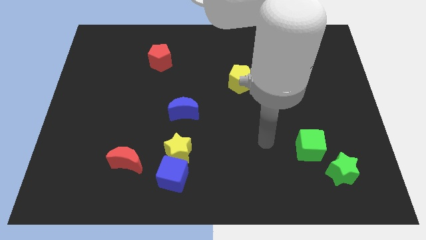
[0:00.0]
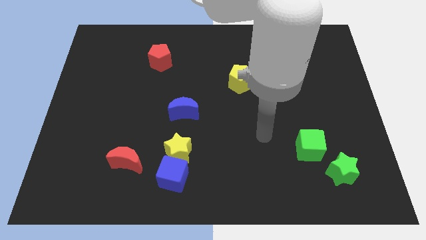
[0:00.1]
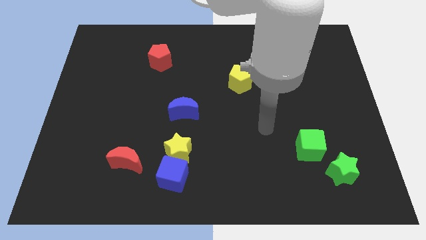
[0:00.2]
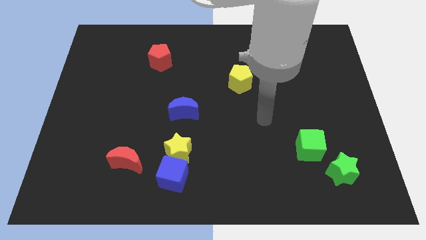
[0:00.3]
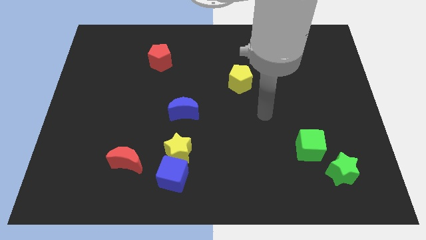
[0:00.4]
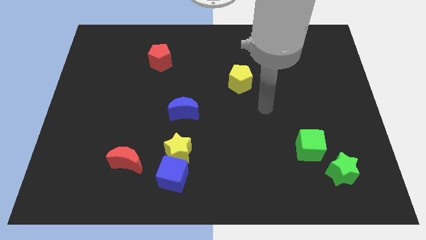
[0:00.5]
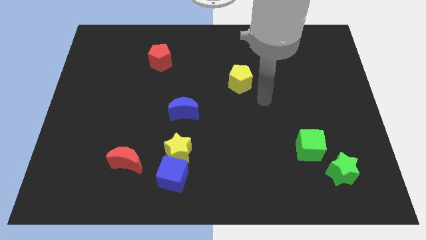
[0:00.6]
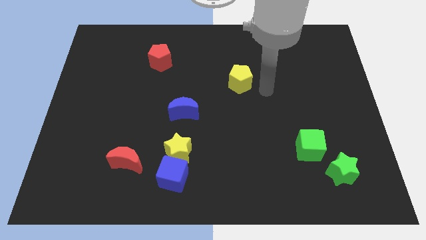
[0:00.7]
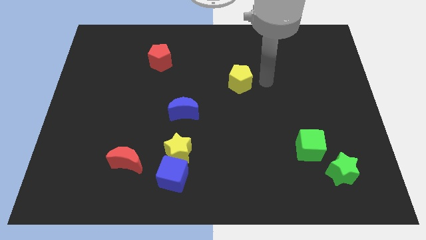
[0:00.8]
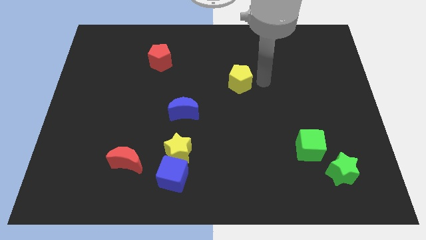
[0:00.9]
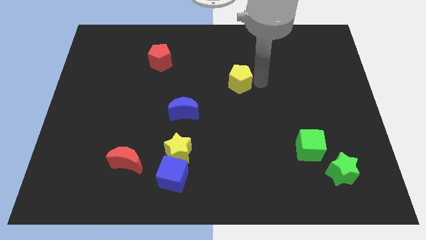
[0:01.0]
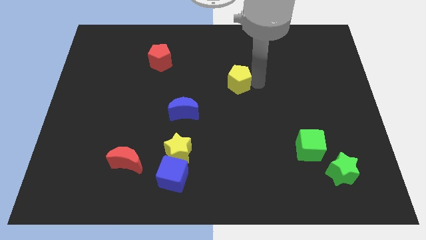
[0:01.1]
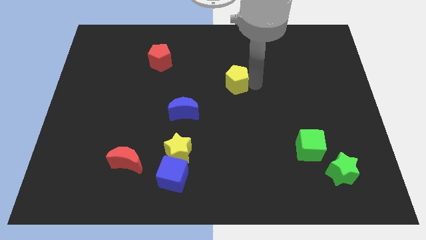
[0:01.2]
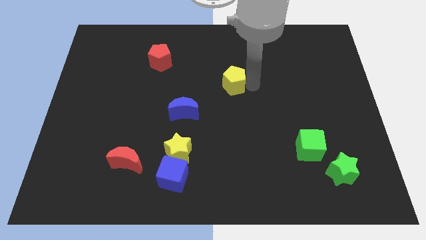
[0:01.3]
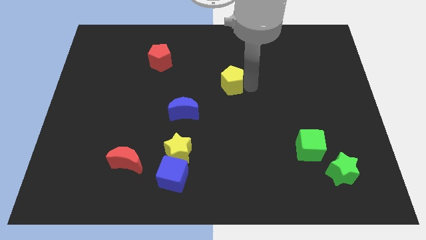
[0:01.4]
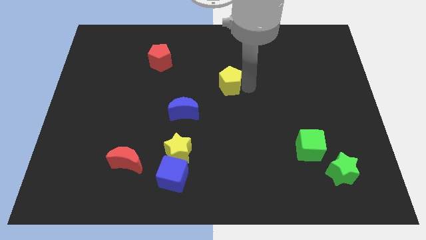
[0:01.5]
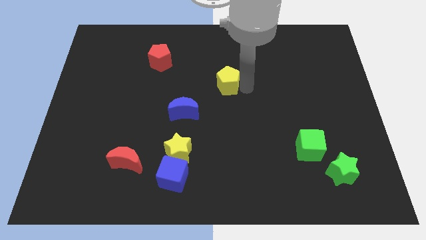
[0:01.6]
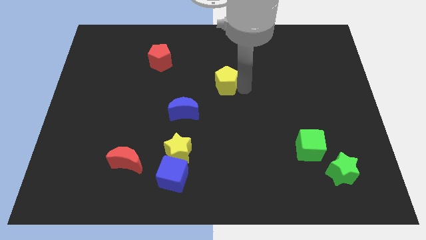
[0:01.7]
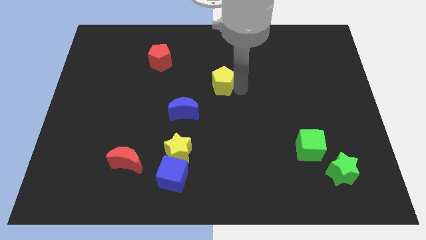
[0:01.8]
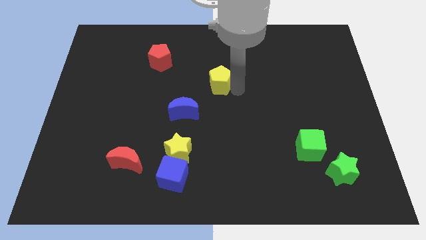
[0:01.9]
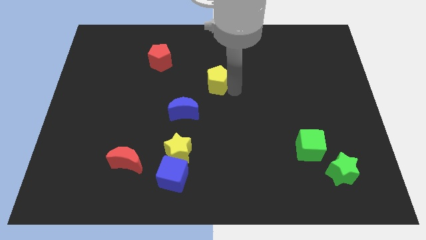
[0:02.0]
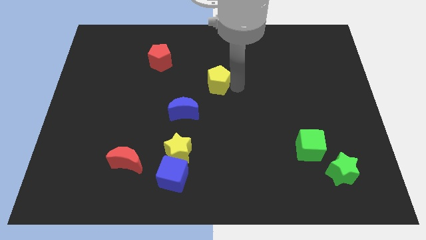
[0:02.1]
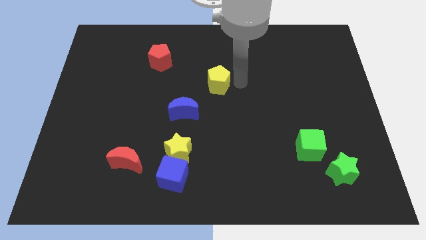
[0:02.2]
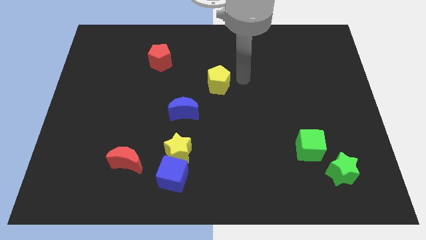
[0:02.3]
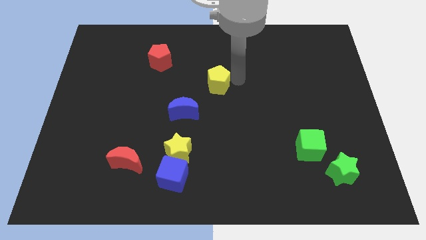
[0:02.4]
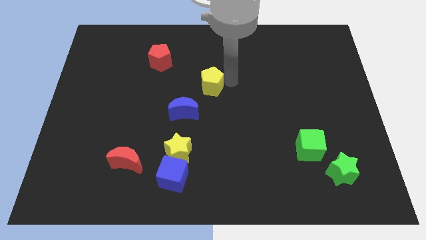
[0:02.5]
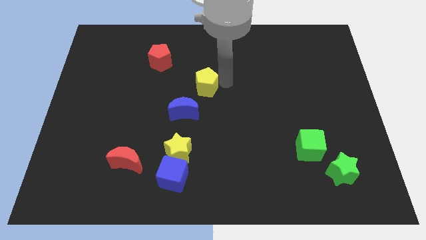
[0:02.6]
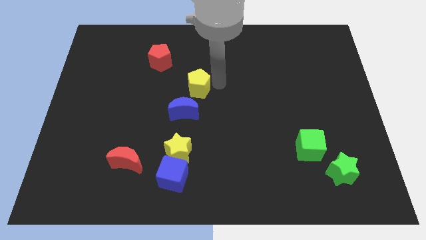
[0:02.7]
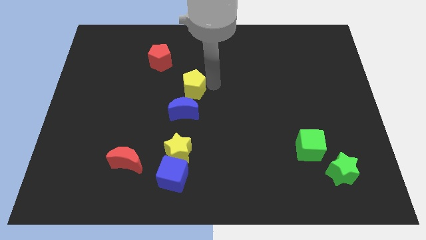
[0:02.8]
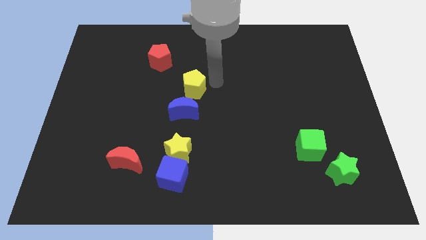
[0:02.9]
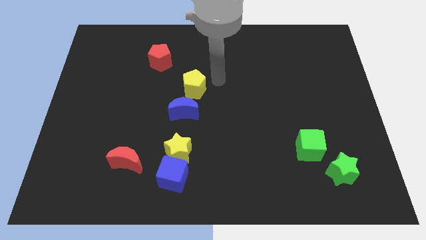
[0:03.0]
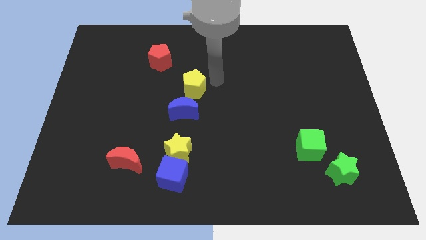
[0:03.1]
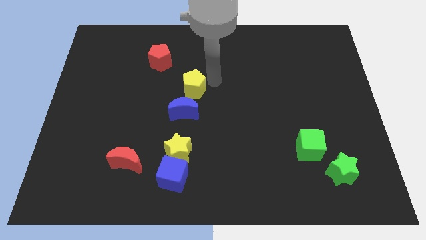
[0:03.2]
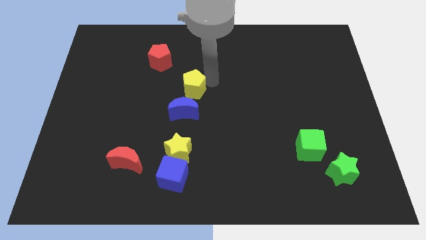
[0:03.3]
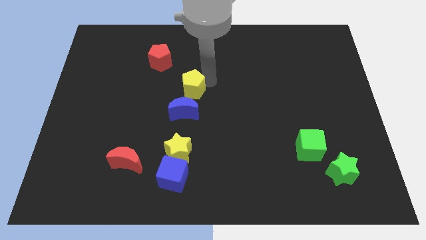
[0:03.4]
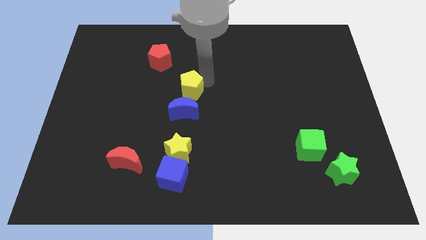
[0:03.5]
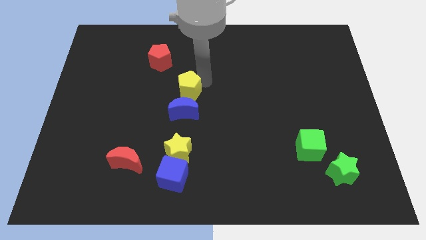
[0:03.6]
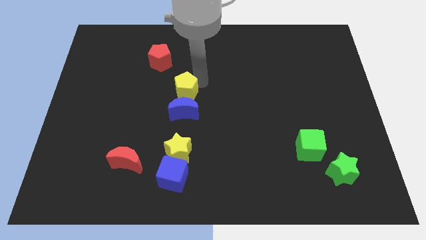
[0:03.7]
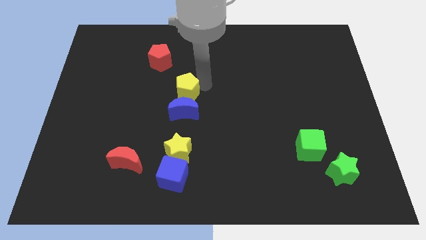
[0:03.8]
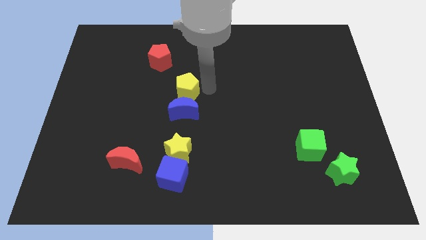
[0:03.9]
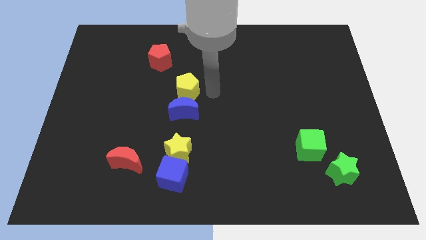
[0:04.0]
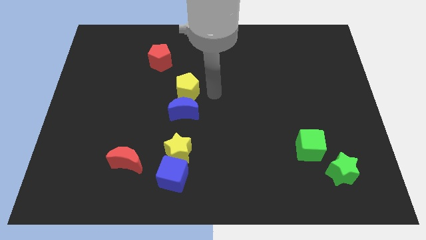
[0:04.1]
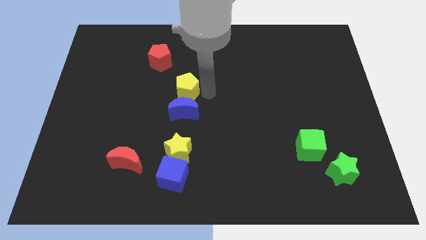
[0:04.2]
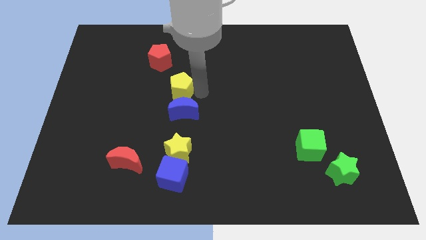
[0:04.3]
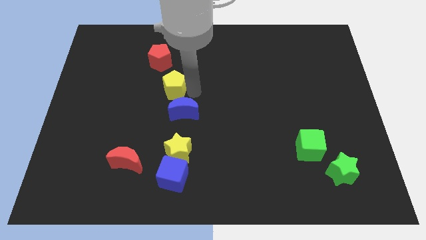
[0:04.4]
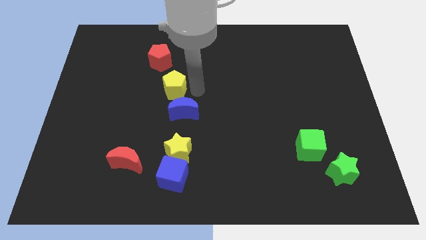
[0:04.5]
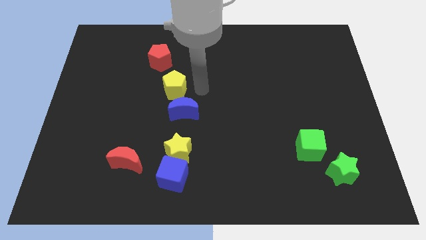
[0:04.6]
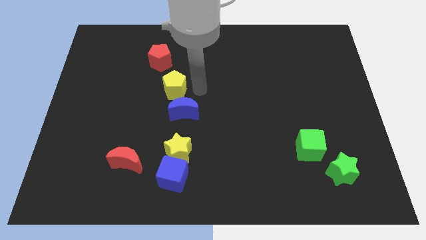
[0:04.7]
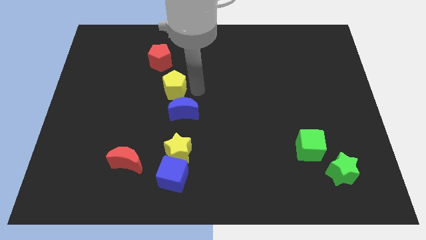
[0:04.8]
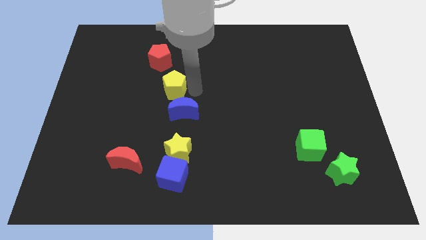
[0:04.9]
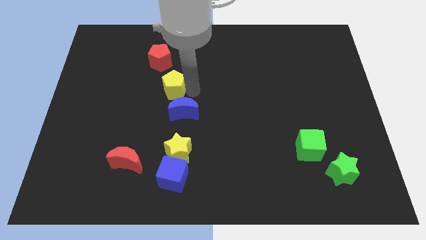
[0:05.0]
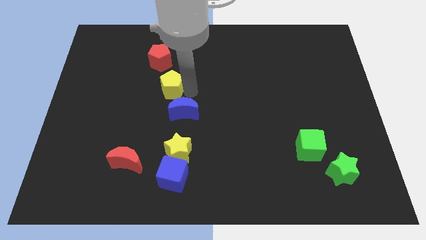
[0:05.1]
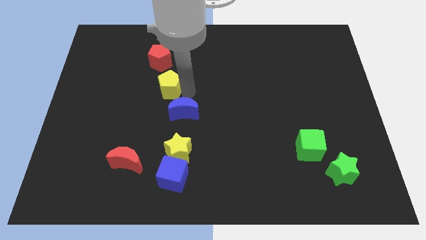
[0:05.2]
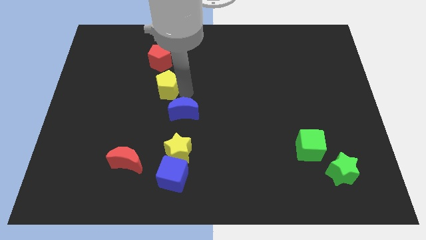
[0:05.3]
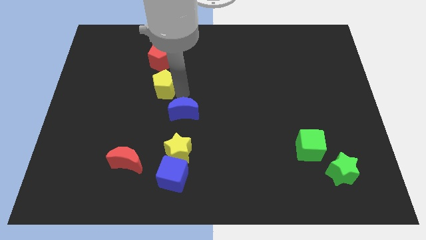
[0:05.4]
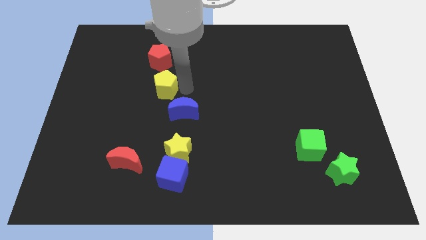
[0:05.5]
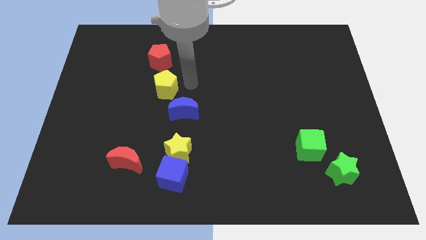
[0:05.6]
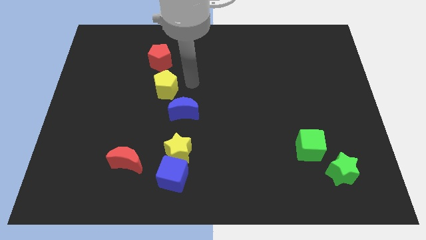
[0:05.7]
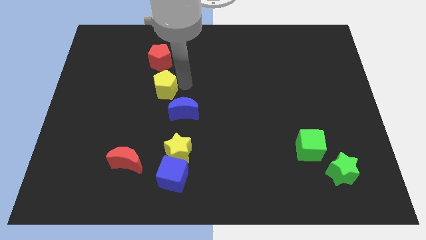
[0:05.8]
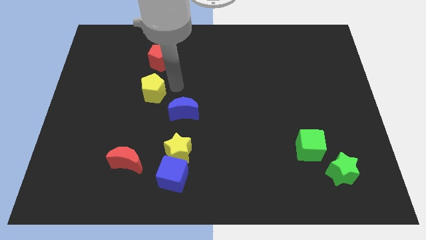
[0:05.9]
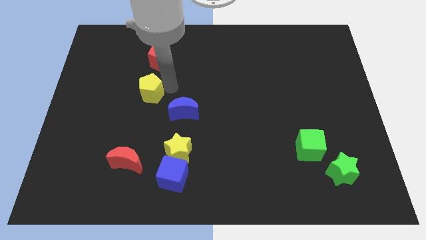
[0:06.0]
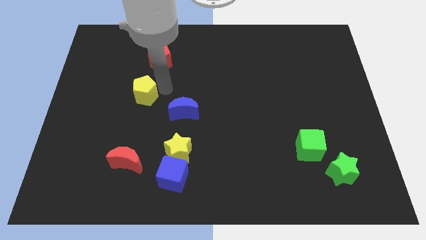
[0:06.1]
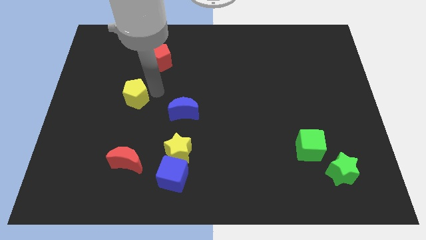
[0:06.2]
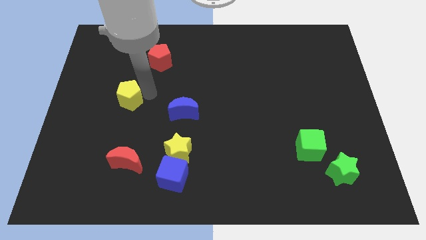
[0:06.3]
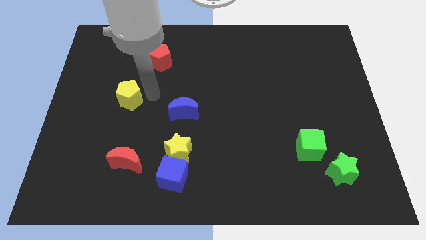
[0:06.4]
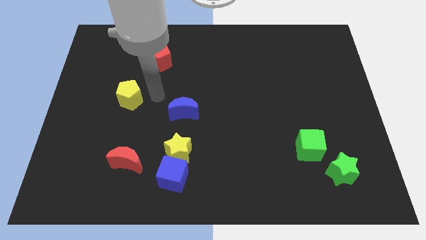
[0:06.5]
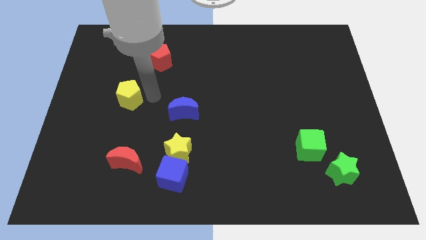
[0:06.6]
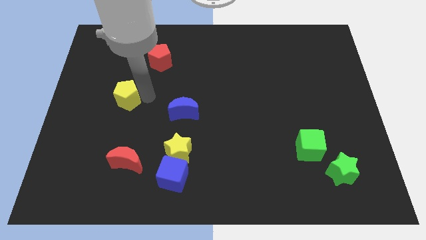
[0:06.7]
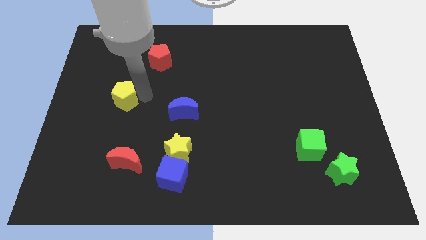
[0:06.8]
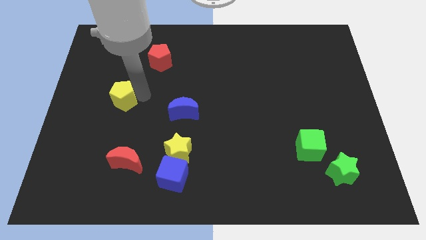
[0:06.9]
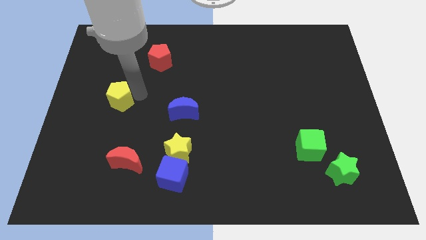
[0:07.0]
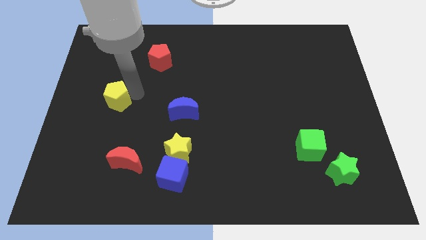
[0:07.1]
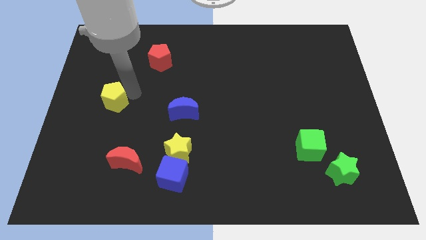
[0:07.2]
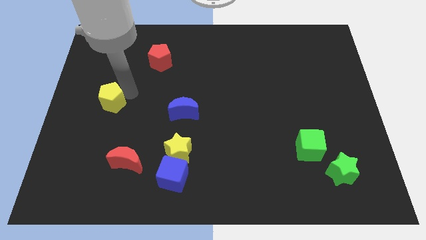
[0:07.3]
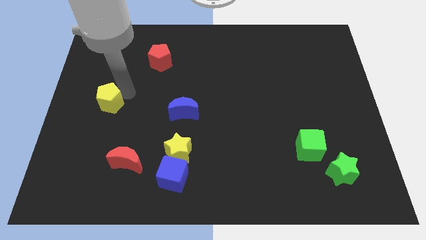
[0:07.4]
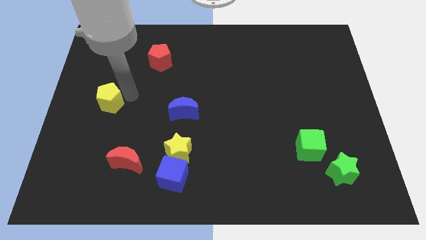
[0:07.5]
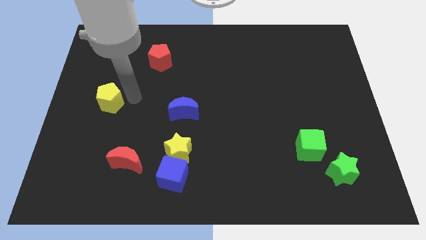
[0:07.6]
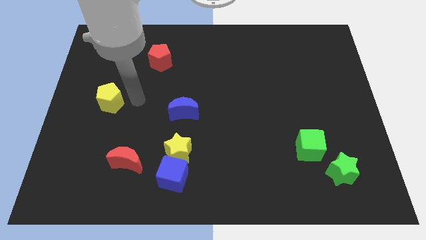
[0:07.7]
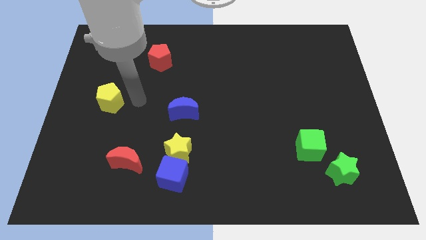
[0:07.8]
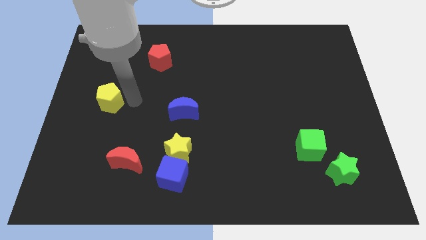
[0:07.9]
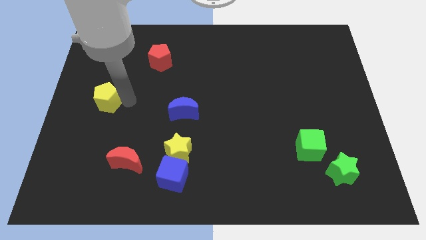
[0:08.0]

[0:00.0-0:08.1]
push the yellow pentagon to the center left
